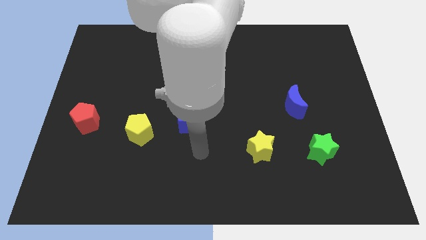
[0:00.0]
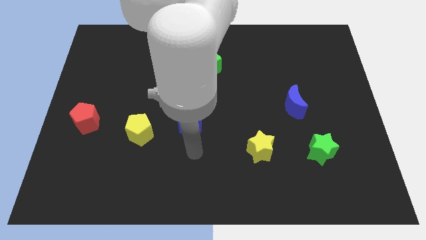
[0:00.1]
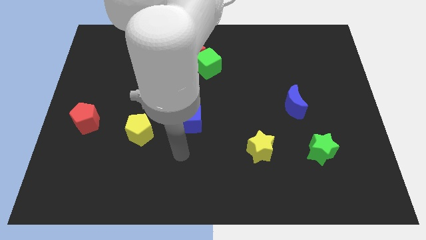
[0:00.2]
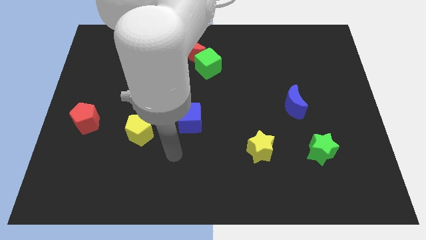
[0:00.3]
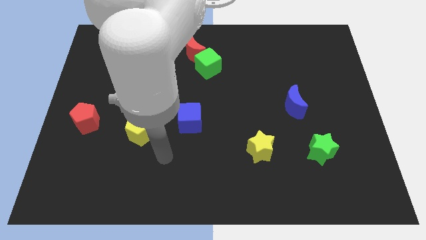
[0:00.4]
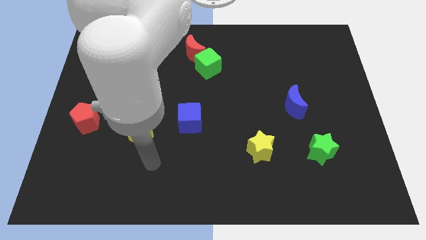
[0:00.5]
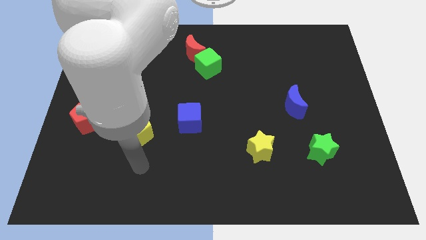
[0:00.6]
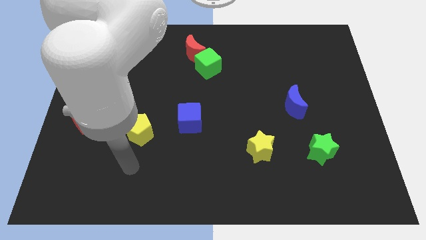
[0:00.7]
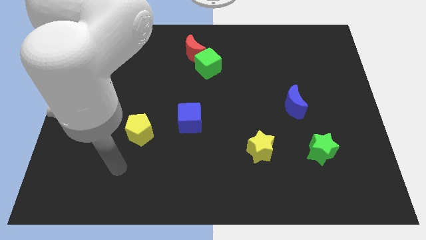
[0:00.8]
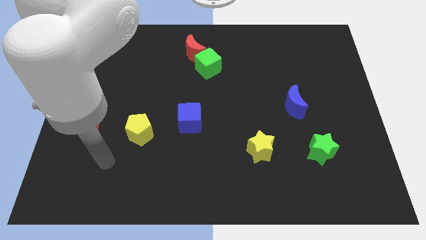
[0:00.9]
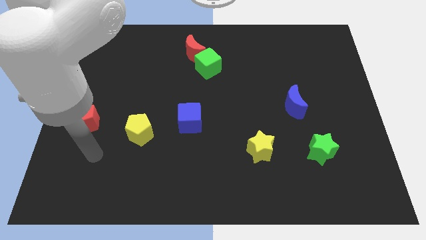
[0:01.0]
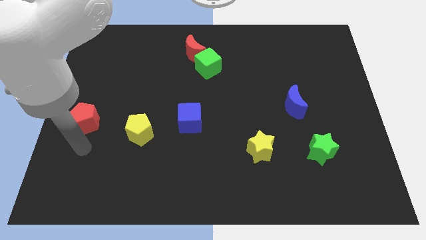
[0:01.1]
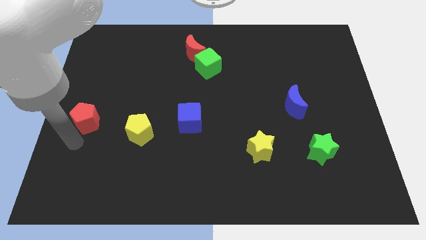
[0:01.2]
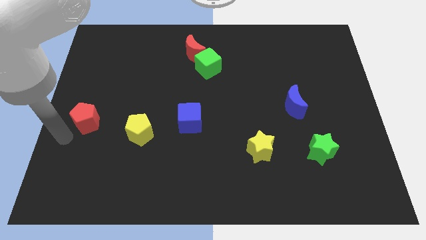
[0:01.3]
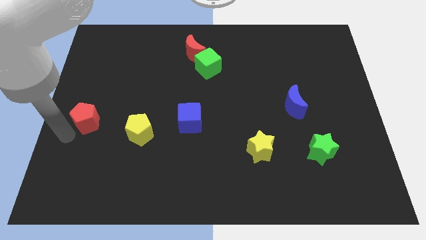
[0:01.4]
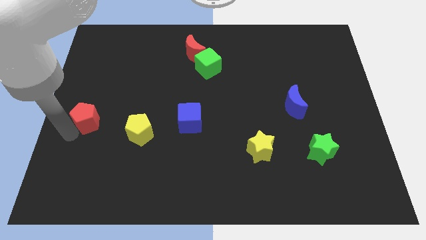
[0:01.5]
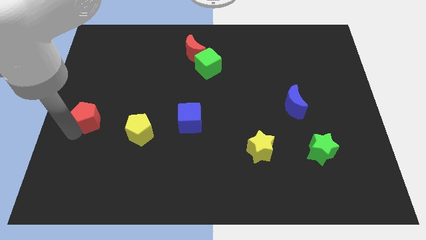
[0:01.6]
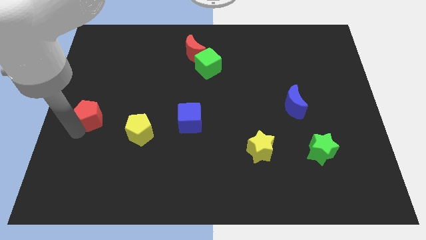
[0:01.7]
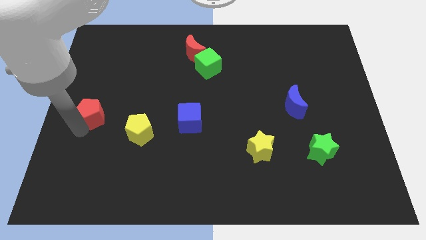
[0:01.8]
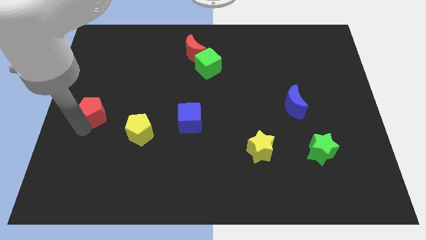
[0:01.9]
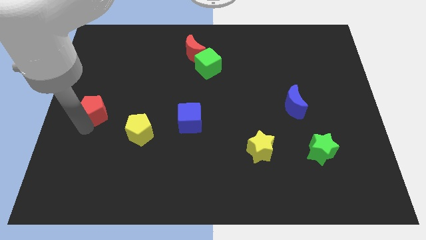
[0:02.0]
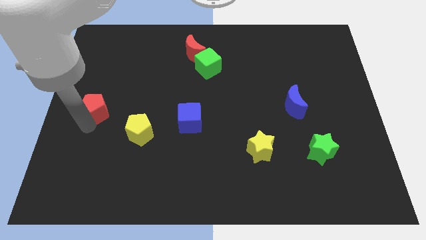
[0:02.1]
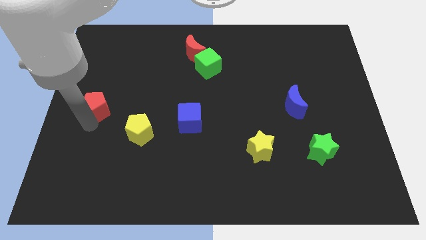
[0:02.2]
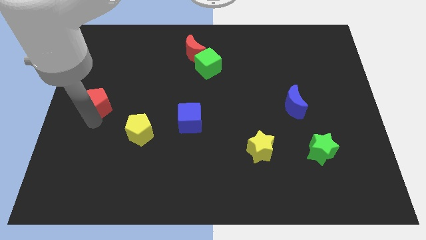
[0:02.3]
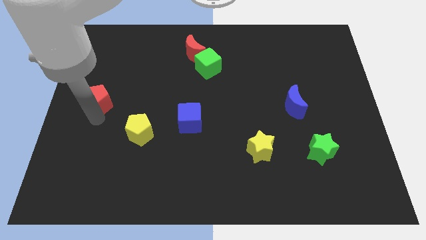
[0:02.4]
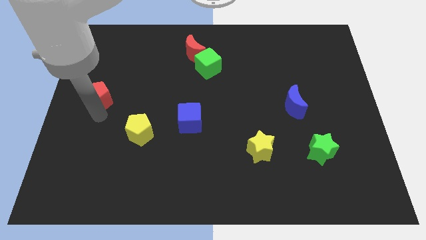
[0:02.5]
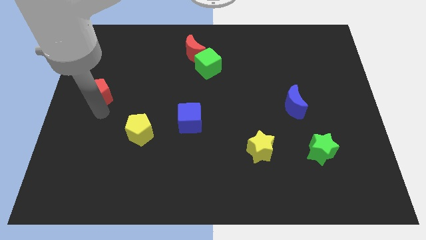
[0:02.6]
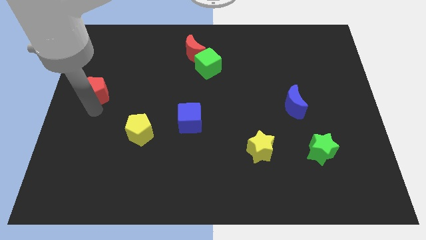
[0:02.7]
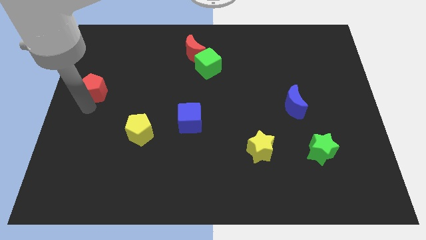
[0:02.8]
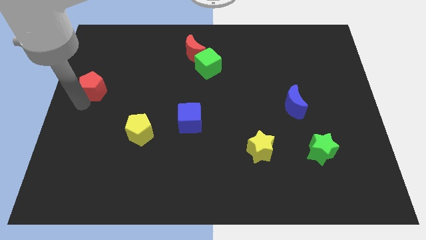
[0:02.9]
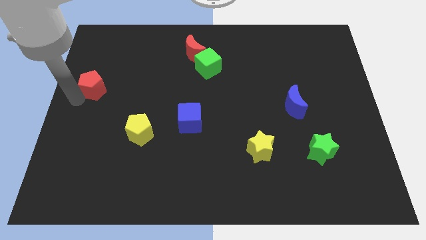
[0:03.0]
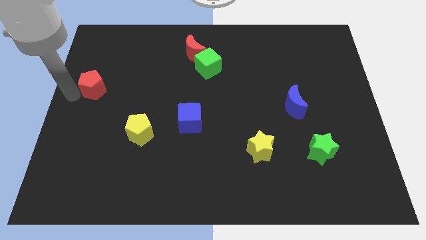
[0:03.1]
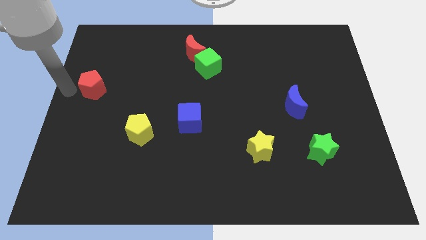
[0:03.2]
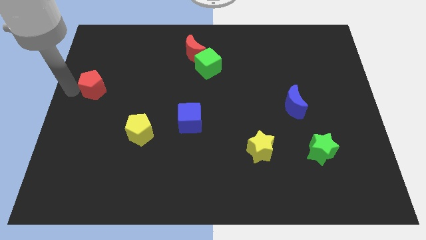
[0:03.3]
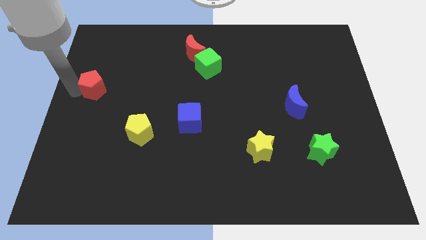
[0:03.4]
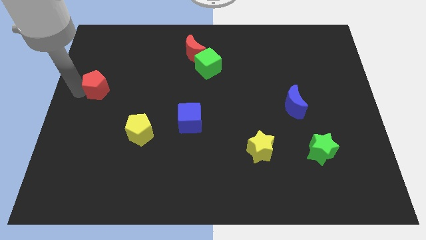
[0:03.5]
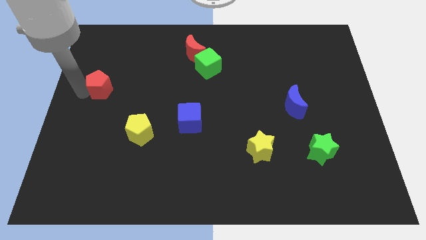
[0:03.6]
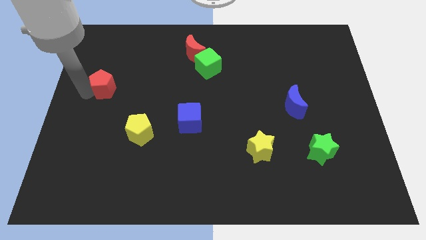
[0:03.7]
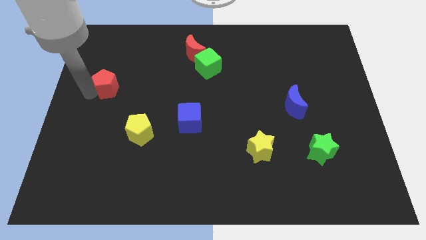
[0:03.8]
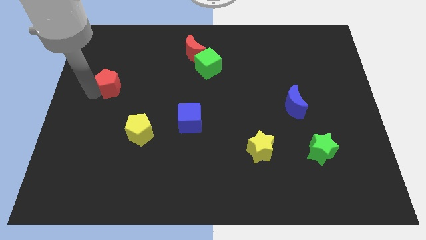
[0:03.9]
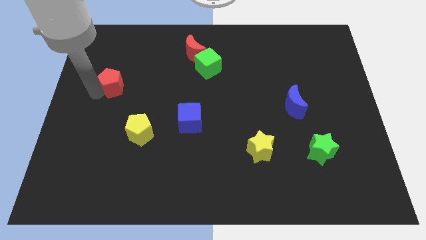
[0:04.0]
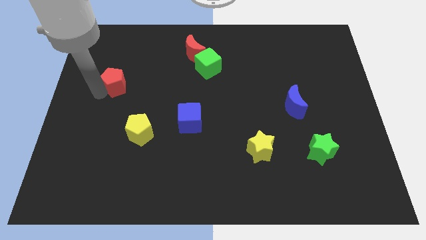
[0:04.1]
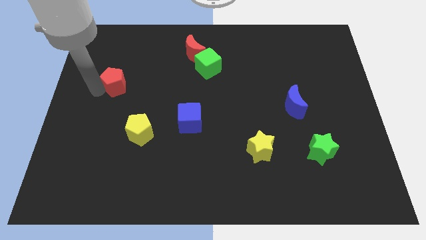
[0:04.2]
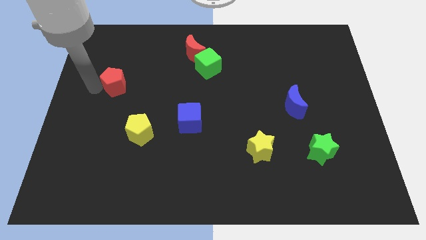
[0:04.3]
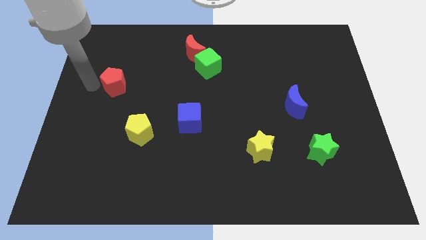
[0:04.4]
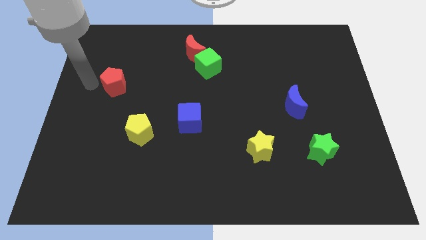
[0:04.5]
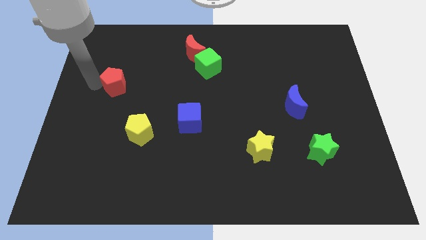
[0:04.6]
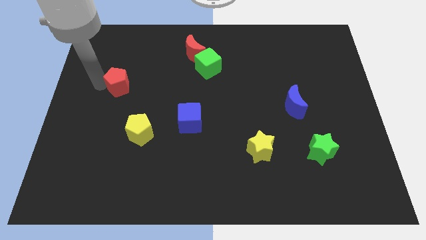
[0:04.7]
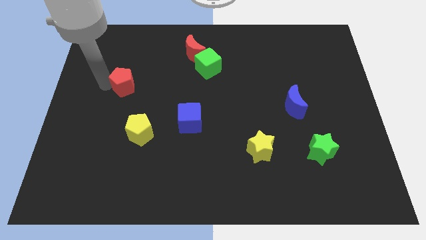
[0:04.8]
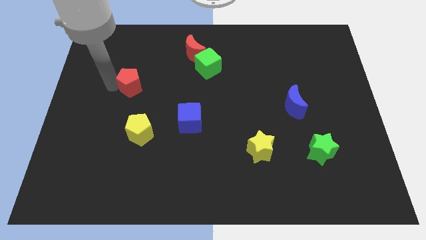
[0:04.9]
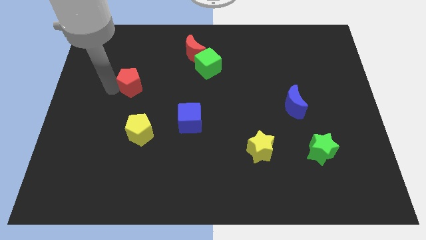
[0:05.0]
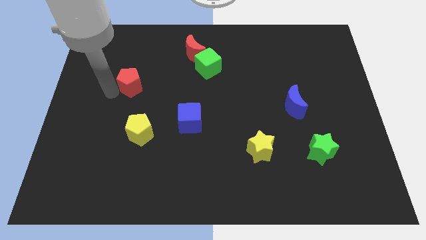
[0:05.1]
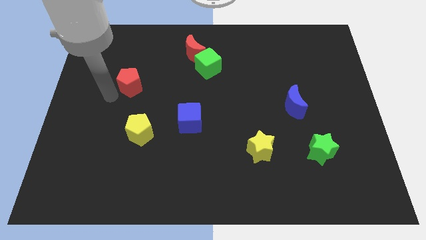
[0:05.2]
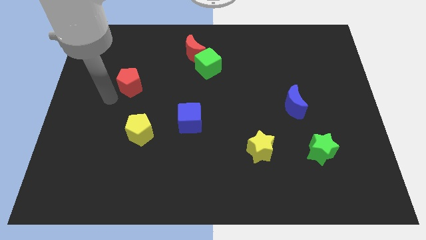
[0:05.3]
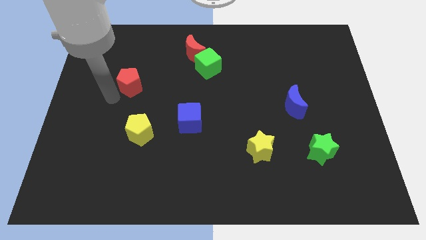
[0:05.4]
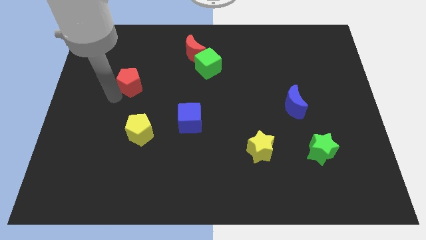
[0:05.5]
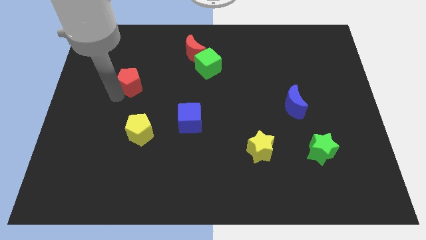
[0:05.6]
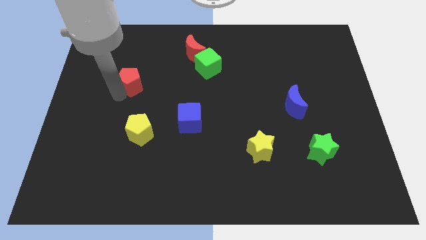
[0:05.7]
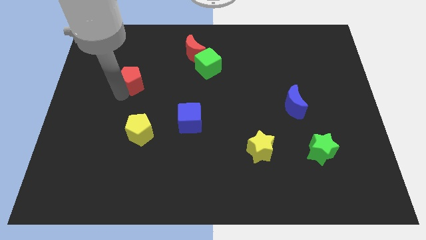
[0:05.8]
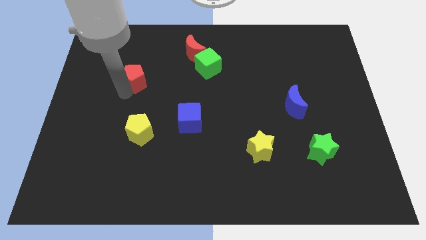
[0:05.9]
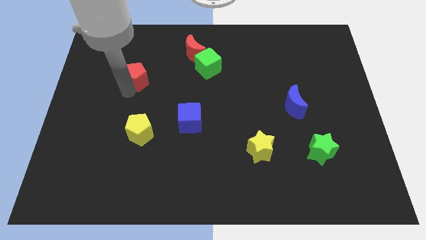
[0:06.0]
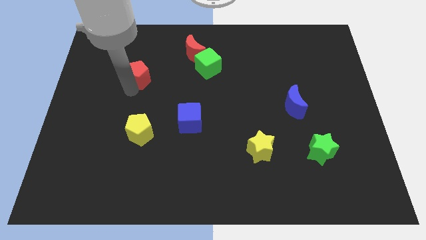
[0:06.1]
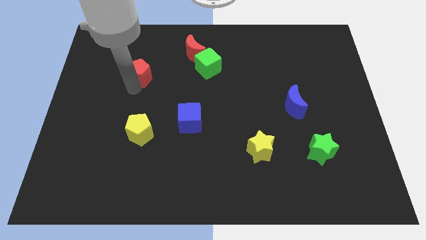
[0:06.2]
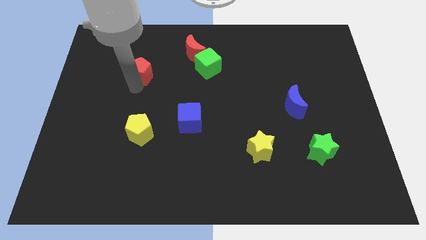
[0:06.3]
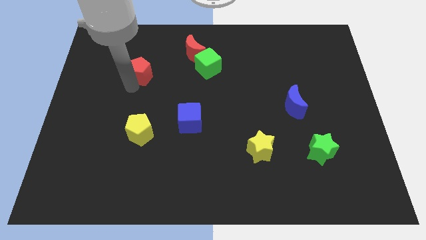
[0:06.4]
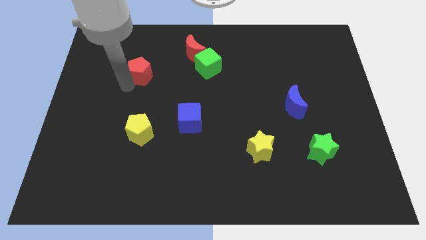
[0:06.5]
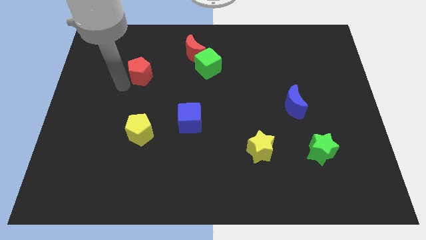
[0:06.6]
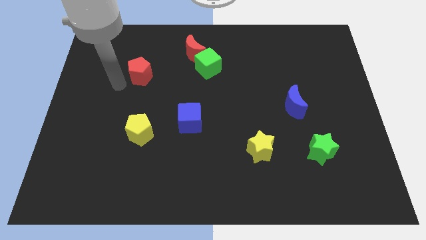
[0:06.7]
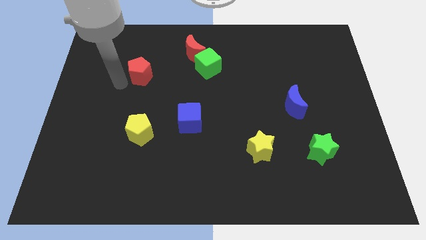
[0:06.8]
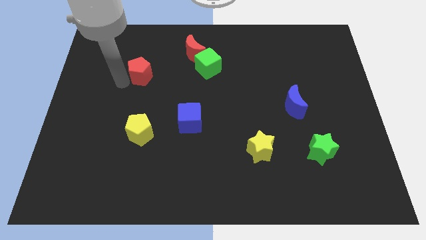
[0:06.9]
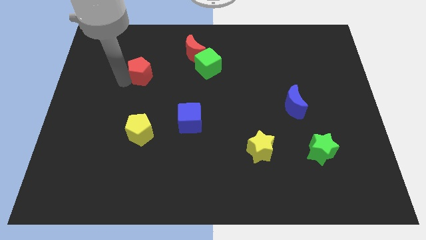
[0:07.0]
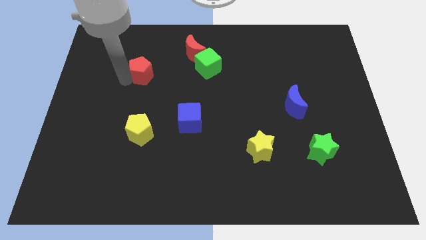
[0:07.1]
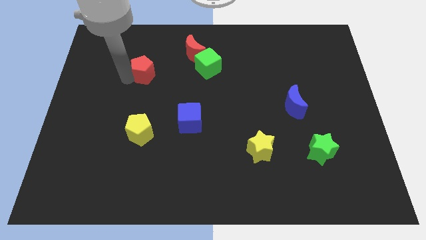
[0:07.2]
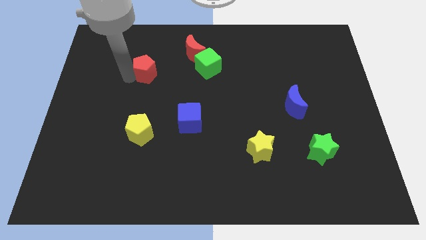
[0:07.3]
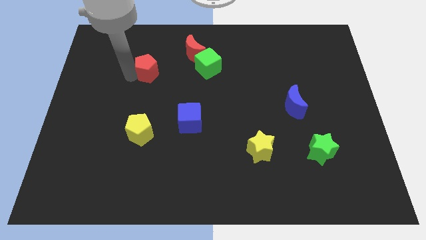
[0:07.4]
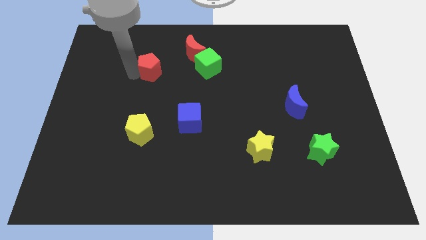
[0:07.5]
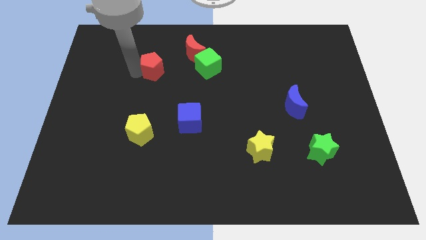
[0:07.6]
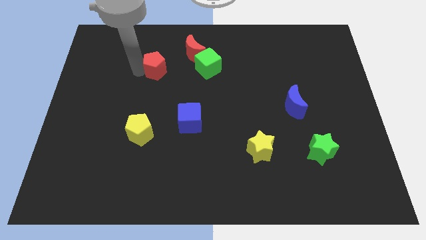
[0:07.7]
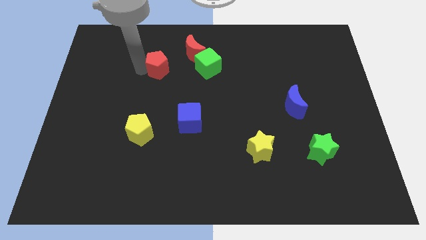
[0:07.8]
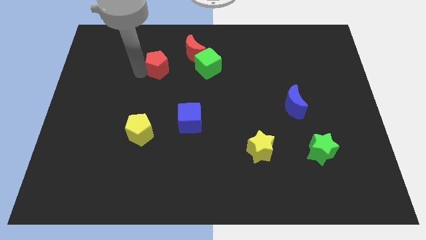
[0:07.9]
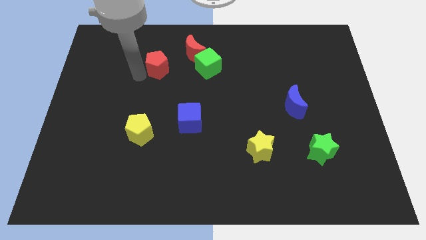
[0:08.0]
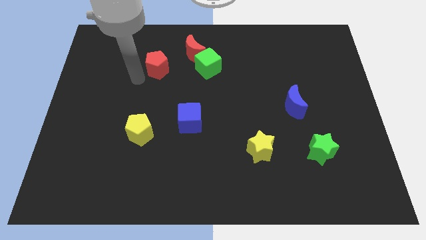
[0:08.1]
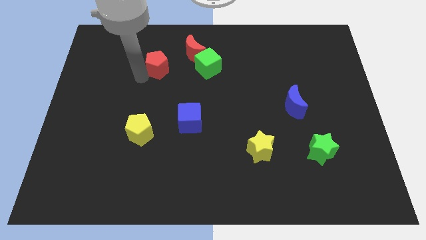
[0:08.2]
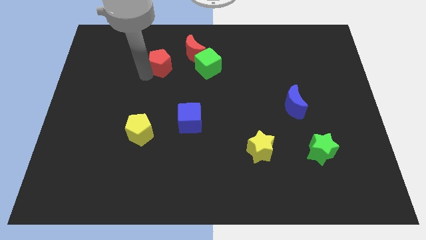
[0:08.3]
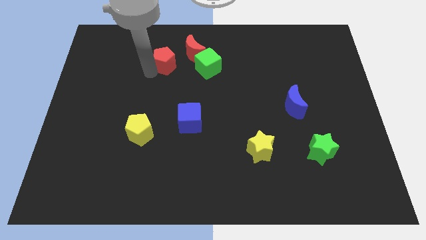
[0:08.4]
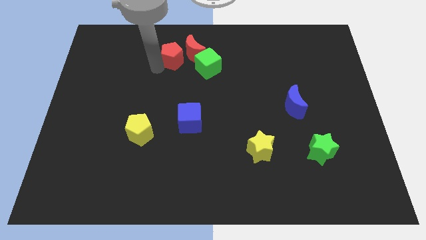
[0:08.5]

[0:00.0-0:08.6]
slide the red pentagon to the red moon
